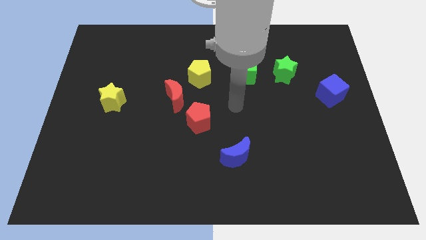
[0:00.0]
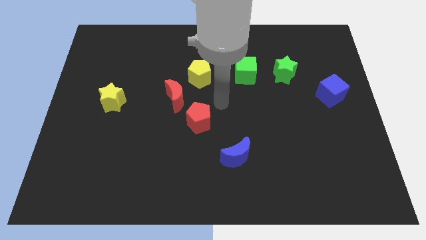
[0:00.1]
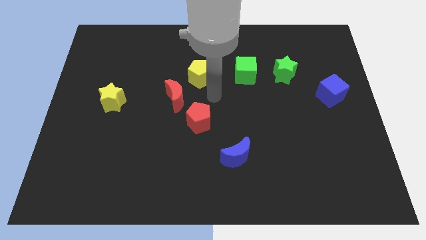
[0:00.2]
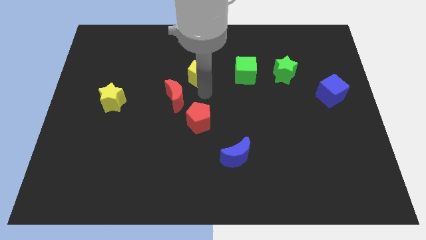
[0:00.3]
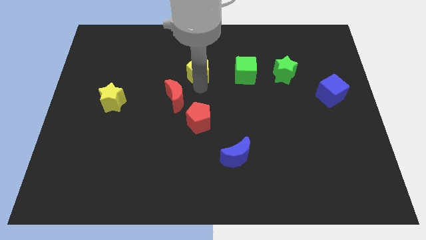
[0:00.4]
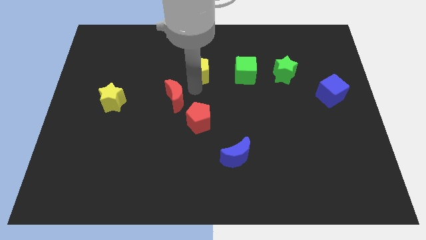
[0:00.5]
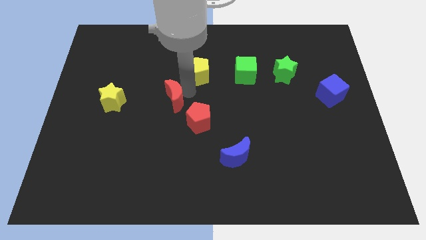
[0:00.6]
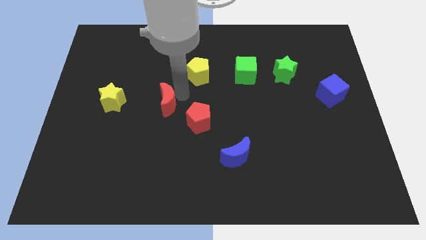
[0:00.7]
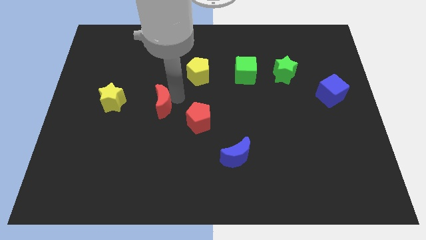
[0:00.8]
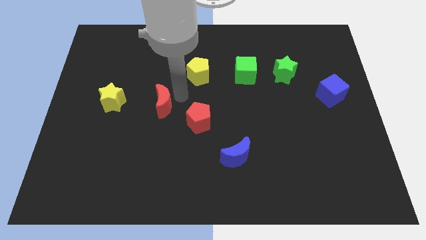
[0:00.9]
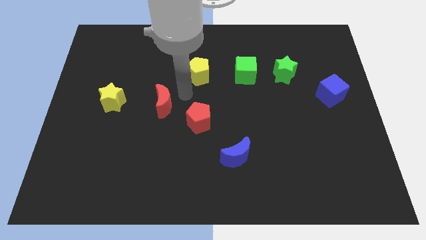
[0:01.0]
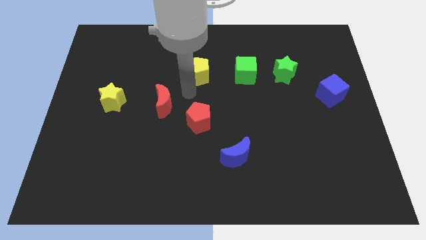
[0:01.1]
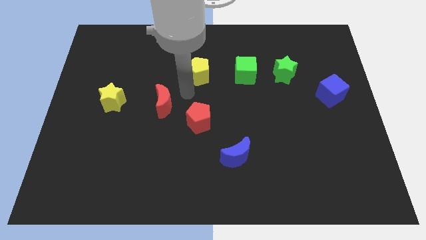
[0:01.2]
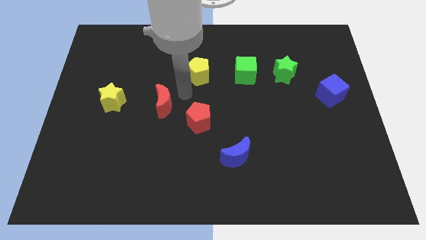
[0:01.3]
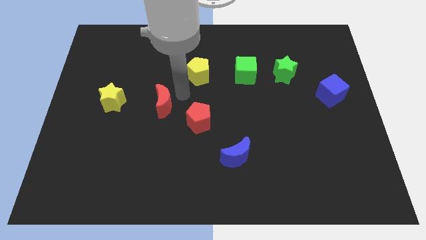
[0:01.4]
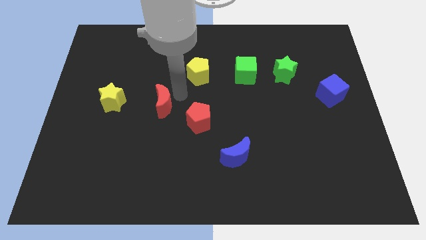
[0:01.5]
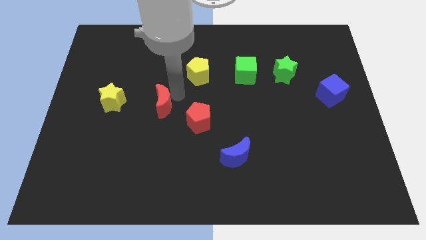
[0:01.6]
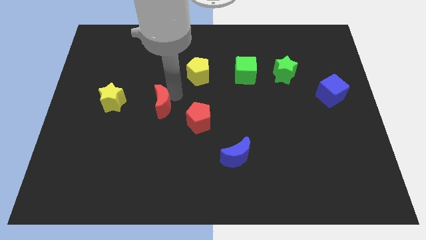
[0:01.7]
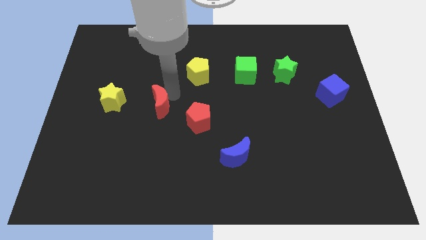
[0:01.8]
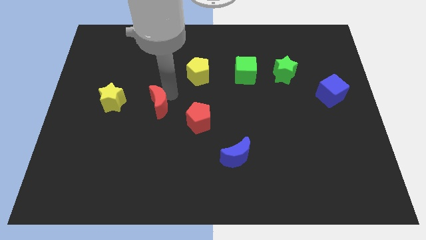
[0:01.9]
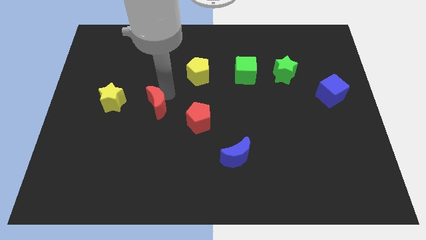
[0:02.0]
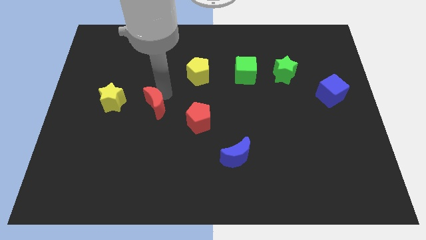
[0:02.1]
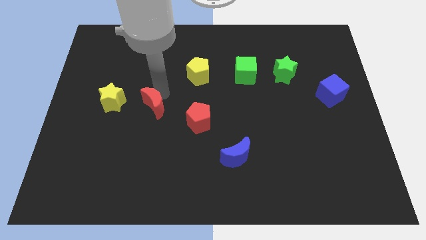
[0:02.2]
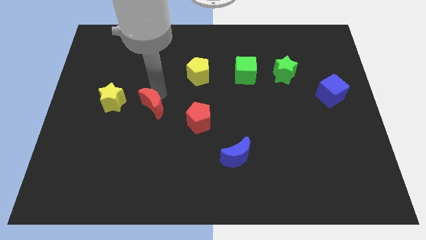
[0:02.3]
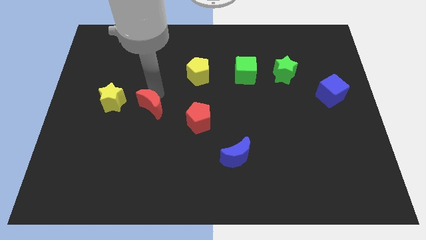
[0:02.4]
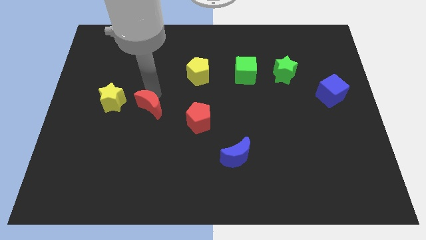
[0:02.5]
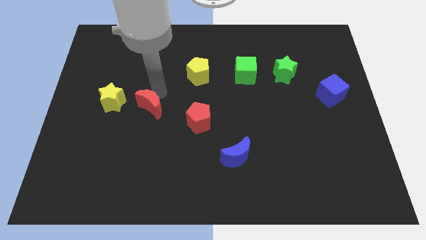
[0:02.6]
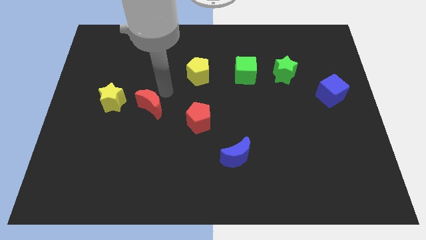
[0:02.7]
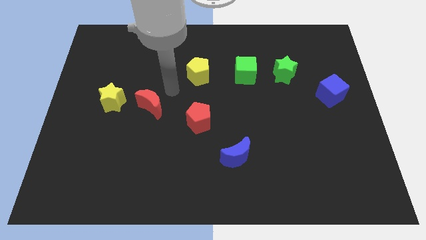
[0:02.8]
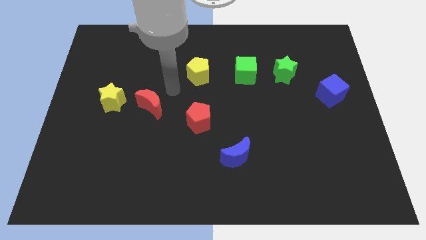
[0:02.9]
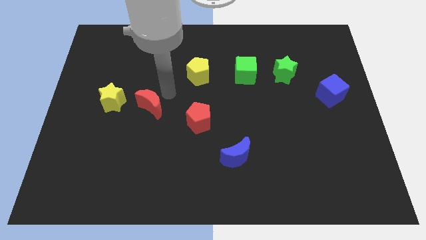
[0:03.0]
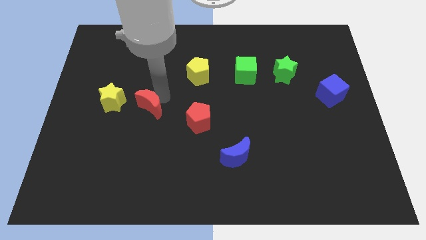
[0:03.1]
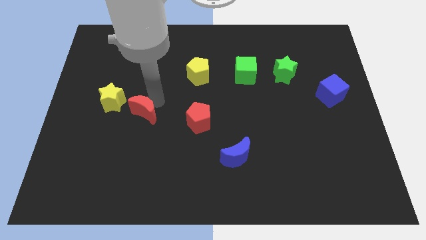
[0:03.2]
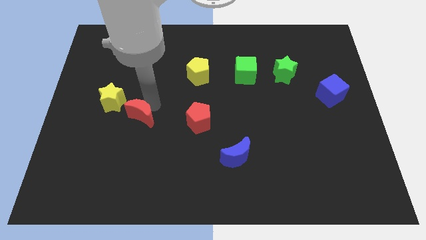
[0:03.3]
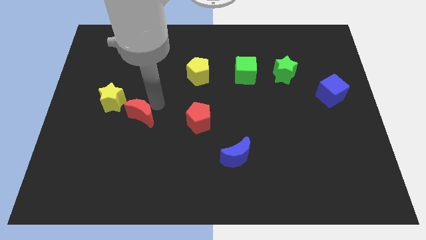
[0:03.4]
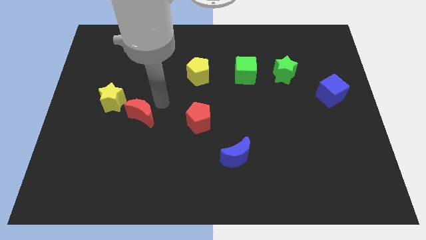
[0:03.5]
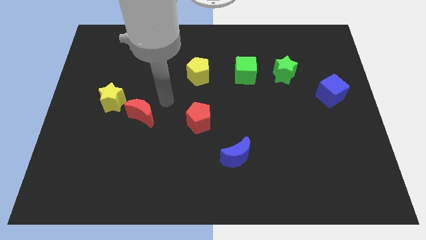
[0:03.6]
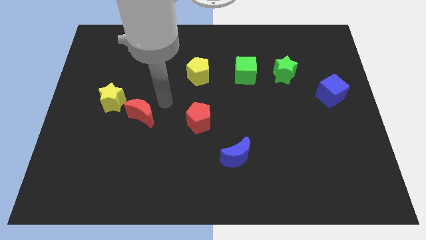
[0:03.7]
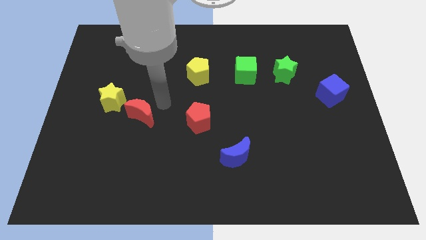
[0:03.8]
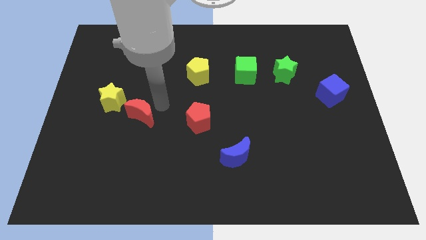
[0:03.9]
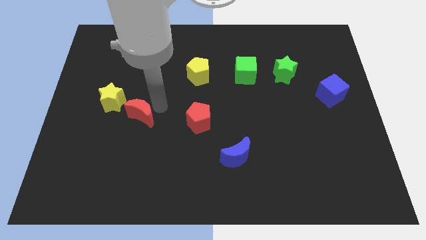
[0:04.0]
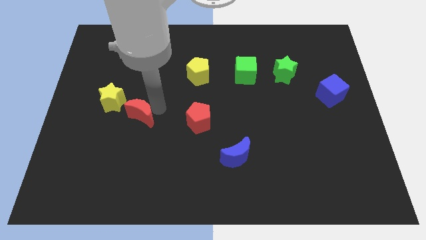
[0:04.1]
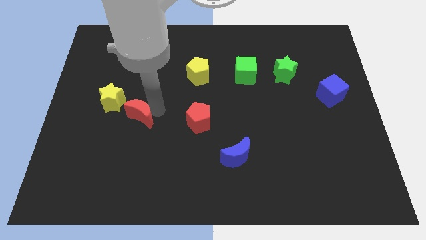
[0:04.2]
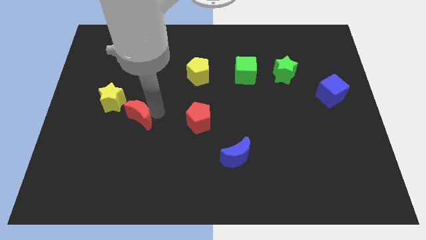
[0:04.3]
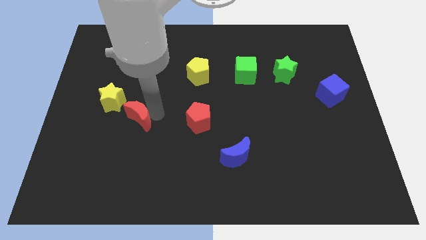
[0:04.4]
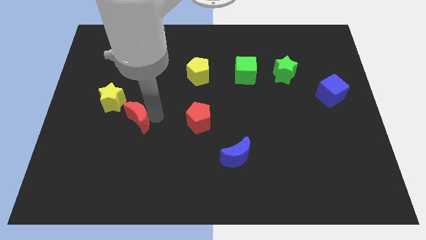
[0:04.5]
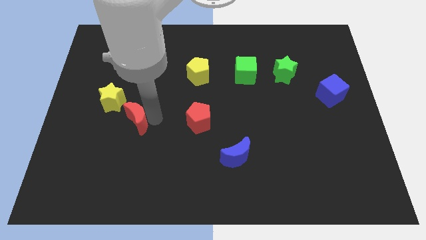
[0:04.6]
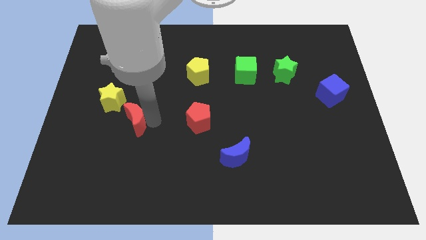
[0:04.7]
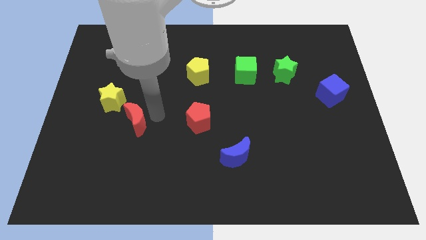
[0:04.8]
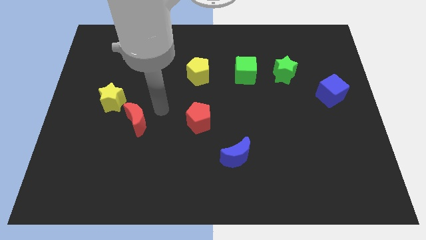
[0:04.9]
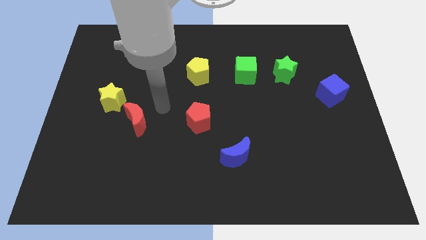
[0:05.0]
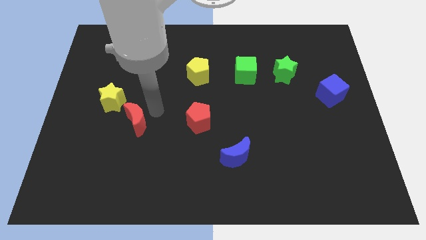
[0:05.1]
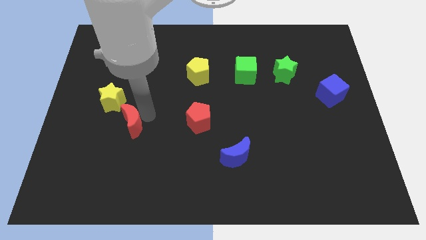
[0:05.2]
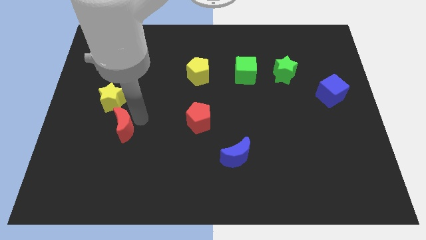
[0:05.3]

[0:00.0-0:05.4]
push the red moon to the bottom side of the yellow star

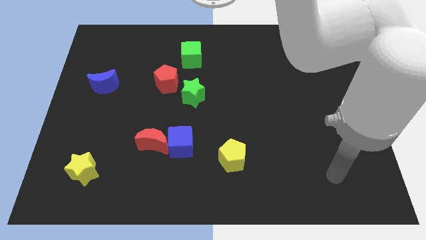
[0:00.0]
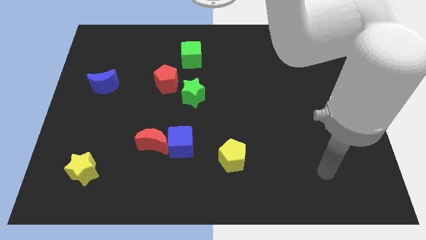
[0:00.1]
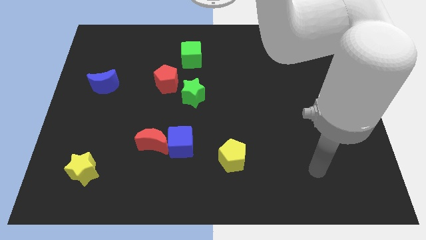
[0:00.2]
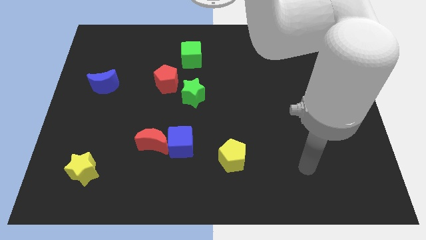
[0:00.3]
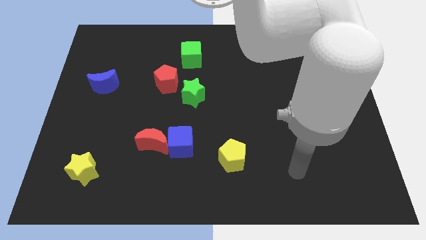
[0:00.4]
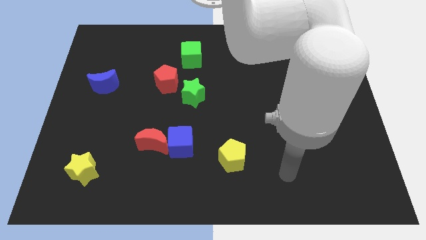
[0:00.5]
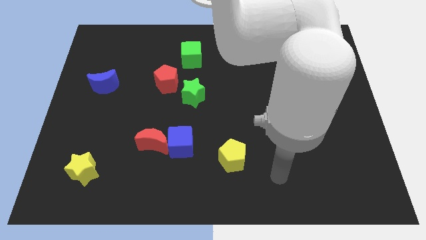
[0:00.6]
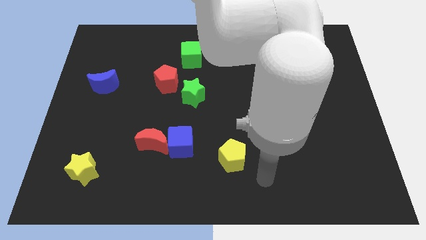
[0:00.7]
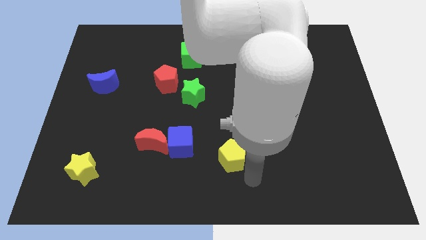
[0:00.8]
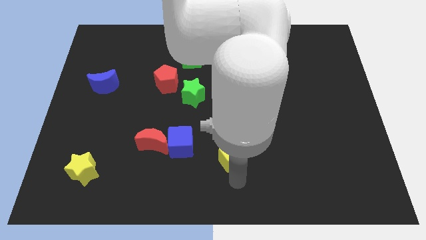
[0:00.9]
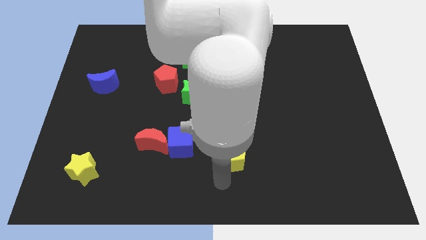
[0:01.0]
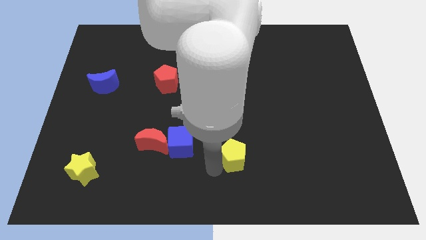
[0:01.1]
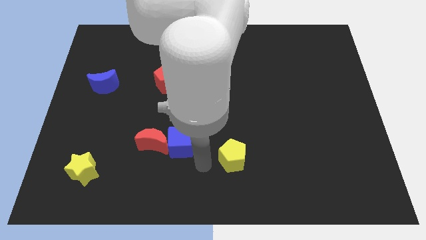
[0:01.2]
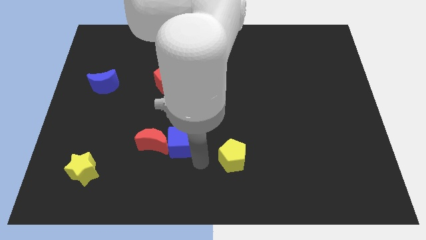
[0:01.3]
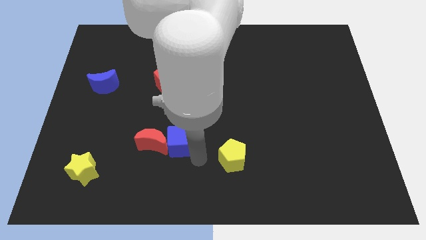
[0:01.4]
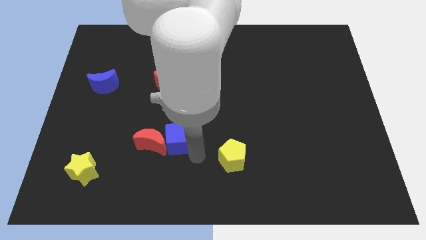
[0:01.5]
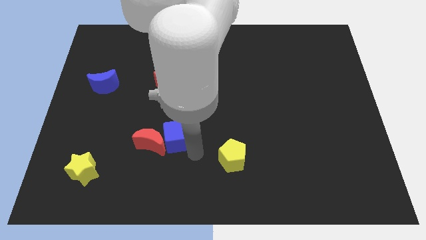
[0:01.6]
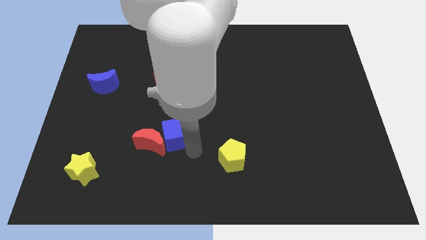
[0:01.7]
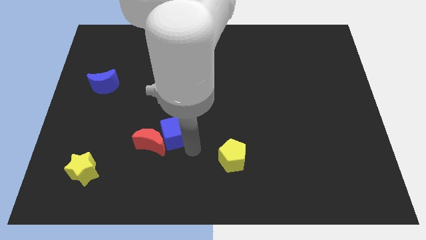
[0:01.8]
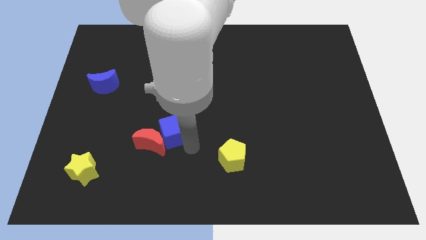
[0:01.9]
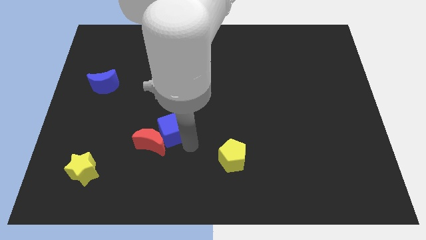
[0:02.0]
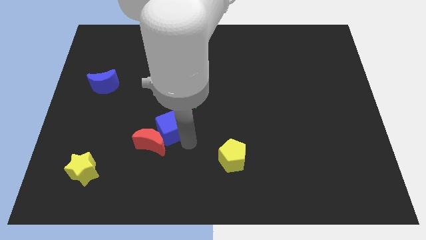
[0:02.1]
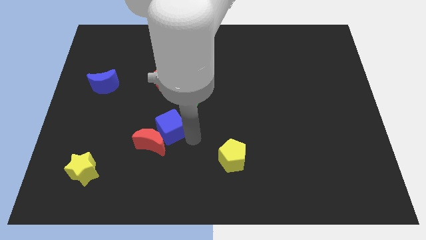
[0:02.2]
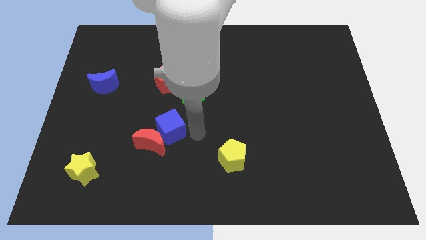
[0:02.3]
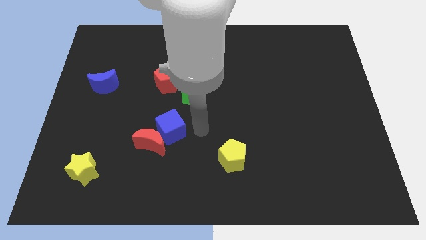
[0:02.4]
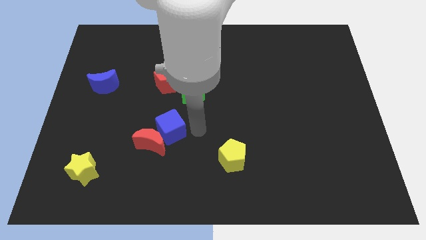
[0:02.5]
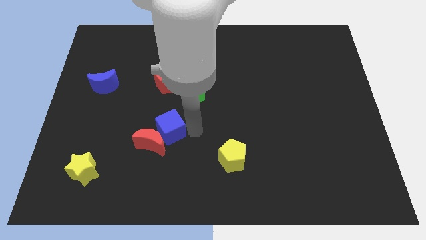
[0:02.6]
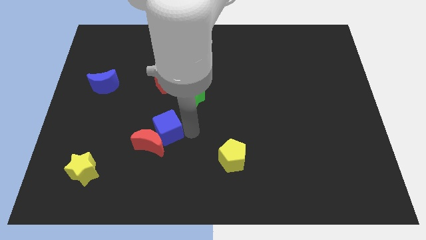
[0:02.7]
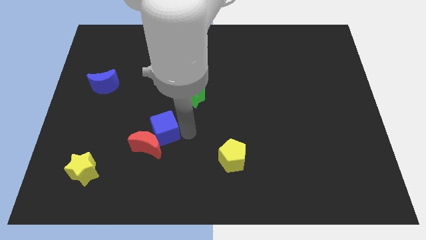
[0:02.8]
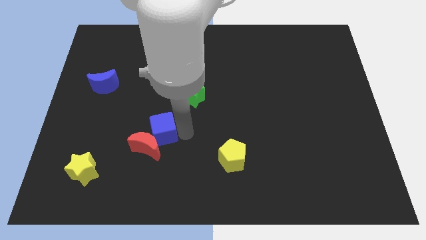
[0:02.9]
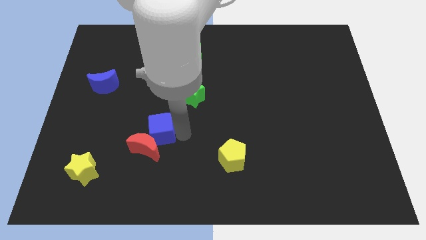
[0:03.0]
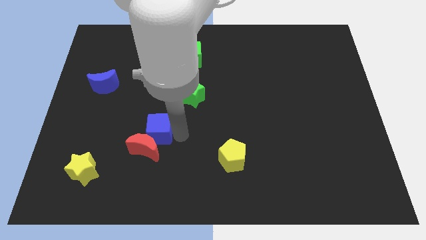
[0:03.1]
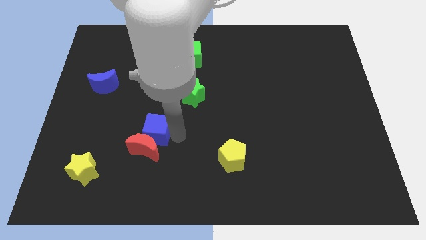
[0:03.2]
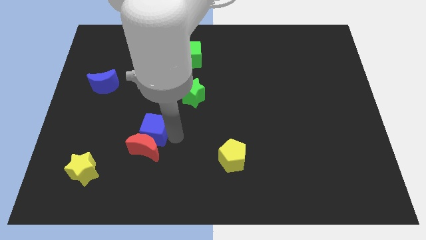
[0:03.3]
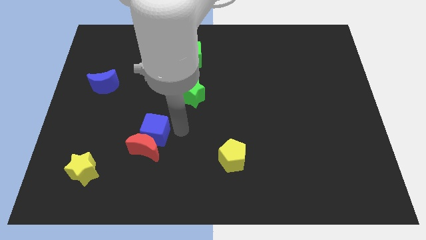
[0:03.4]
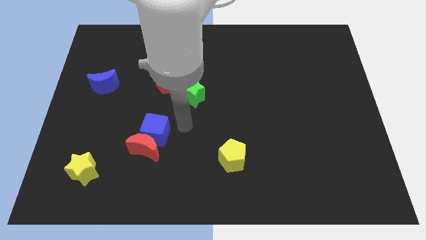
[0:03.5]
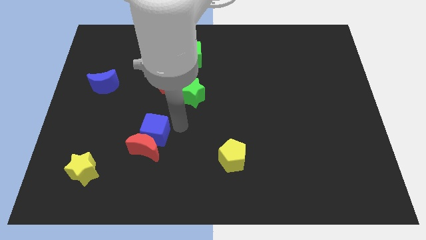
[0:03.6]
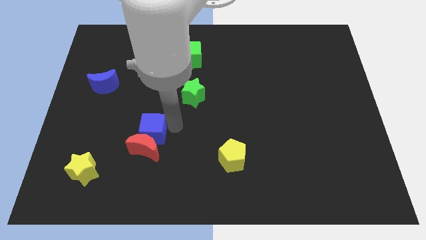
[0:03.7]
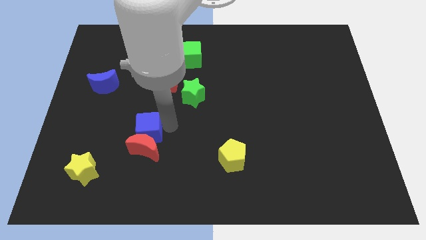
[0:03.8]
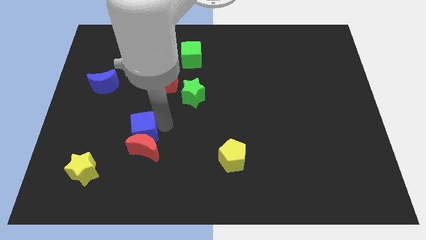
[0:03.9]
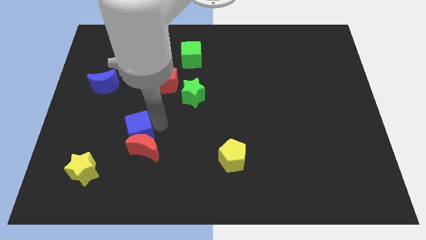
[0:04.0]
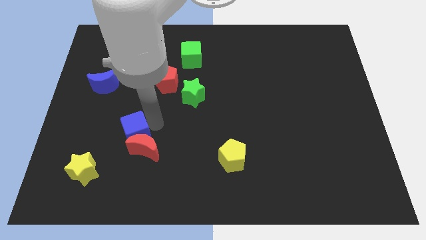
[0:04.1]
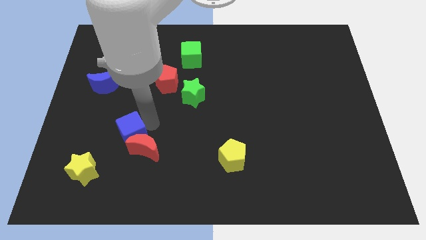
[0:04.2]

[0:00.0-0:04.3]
slide the blue cube just left of the red moon
